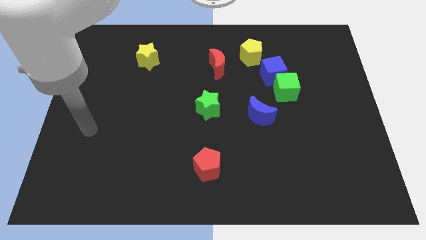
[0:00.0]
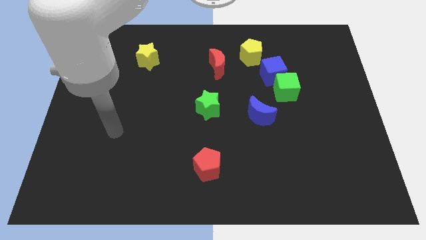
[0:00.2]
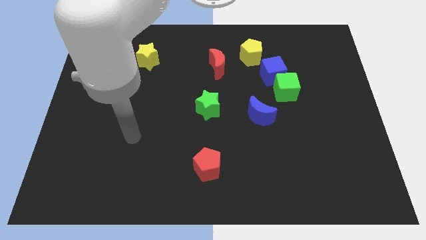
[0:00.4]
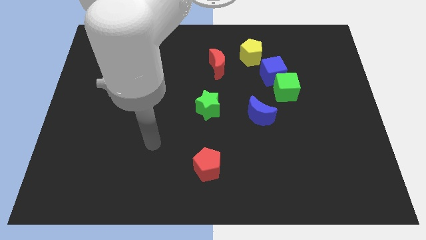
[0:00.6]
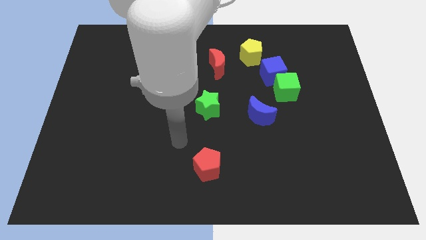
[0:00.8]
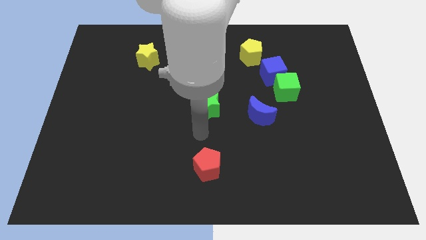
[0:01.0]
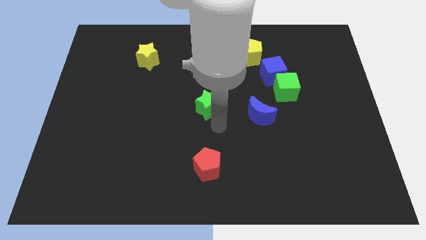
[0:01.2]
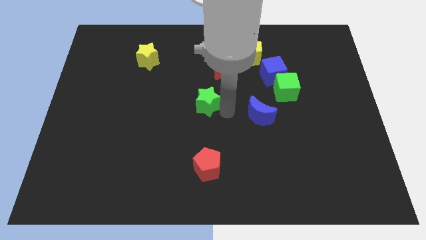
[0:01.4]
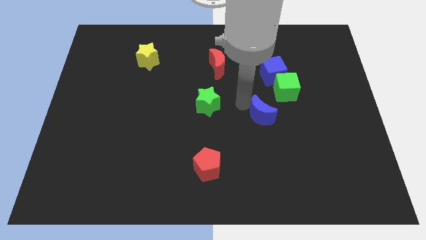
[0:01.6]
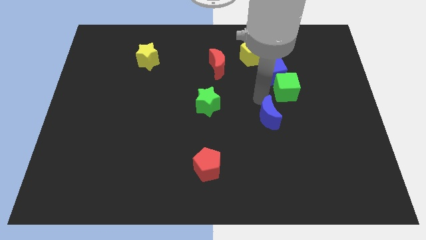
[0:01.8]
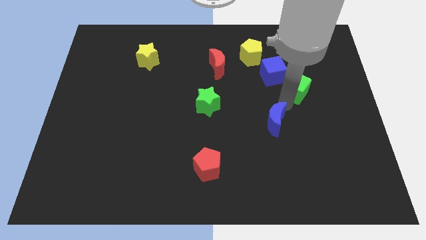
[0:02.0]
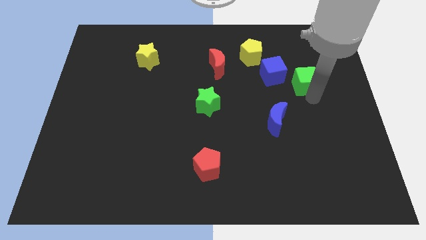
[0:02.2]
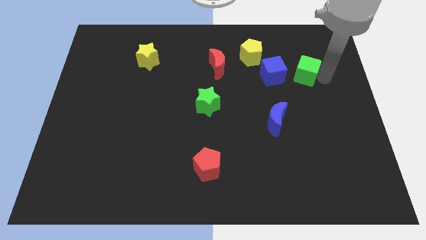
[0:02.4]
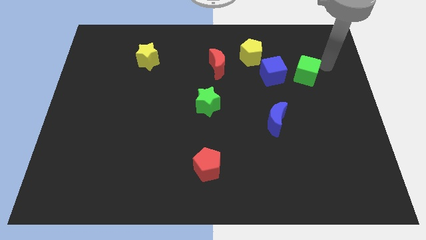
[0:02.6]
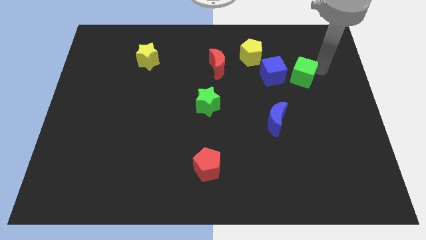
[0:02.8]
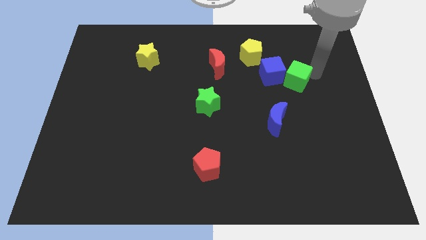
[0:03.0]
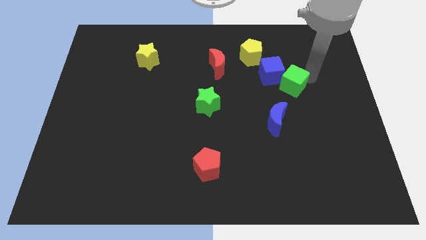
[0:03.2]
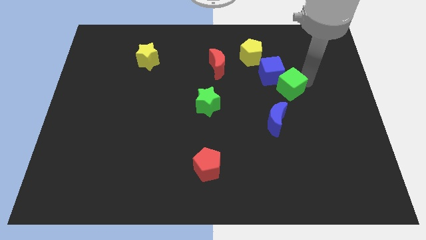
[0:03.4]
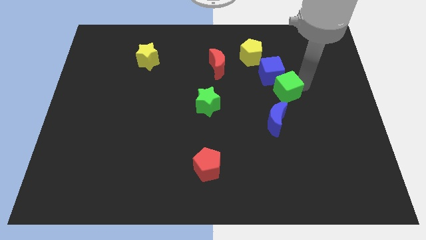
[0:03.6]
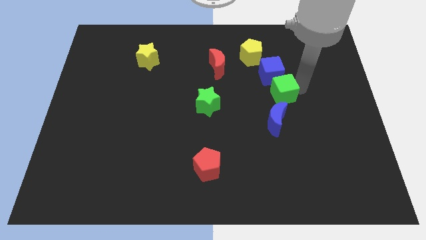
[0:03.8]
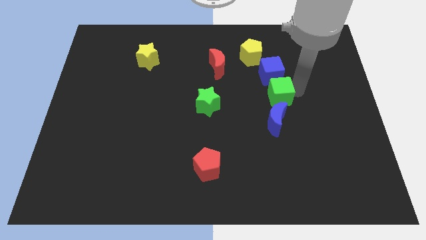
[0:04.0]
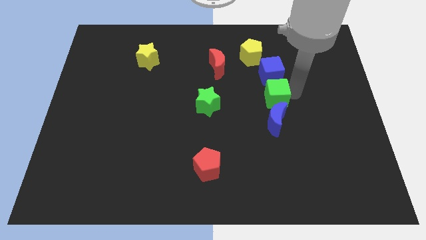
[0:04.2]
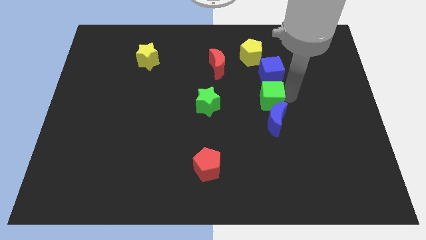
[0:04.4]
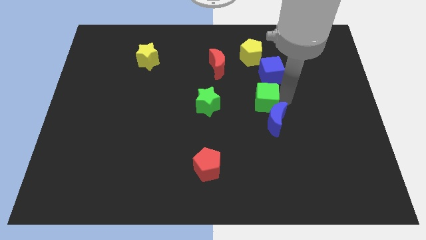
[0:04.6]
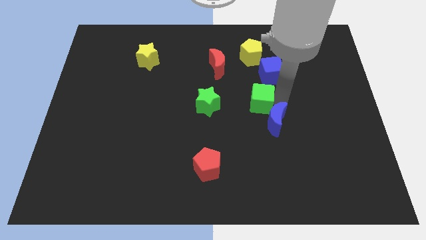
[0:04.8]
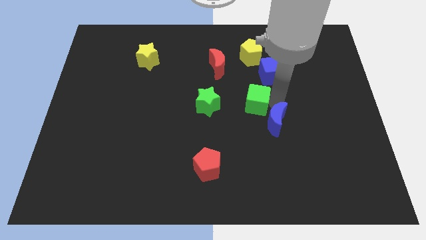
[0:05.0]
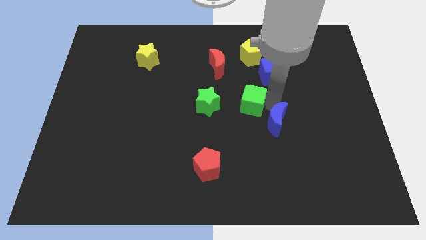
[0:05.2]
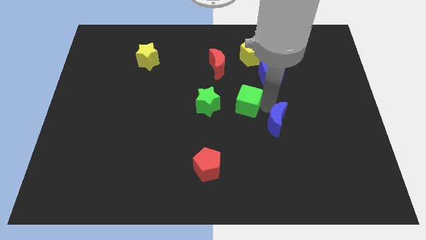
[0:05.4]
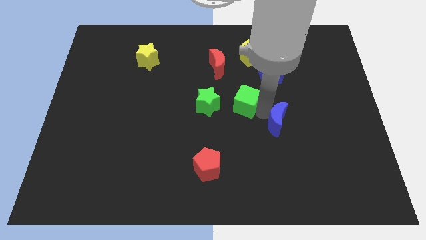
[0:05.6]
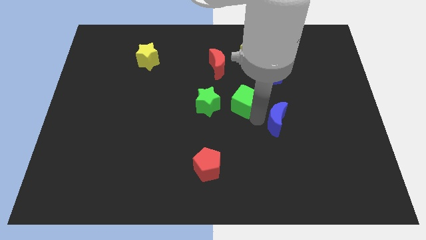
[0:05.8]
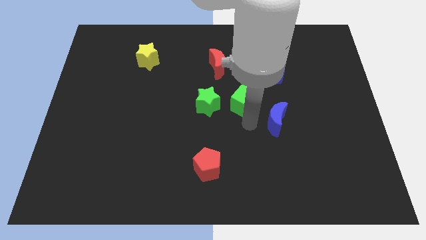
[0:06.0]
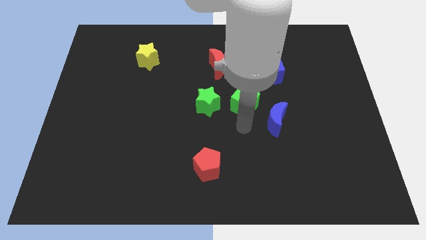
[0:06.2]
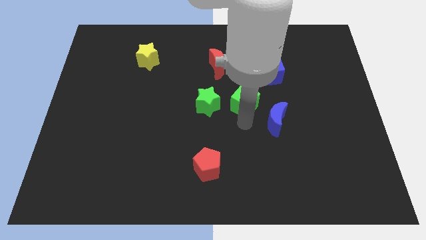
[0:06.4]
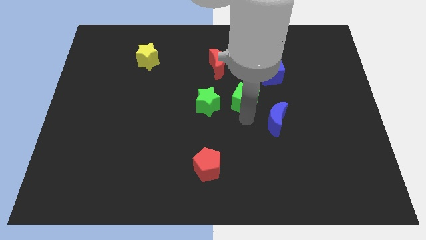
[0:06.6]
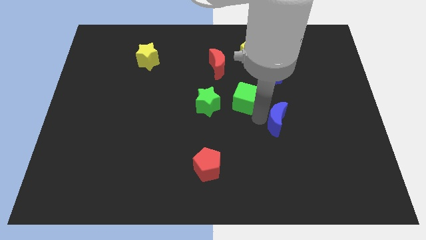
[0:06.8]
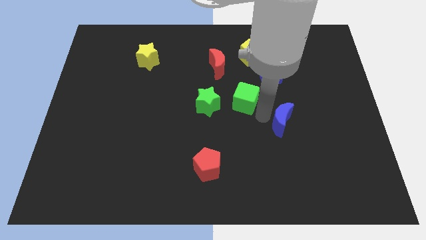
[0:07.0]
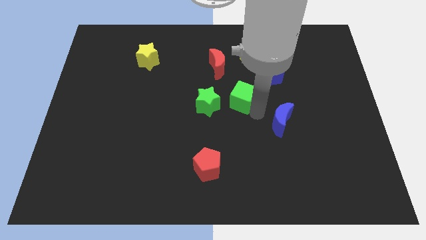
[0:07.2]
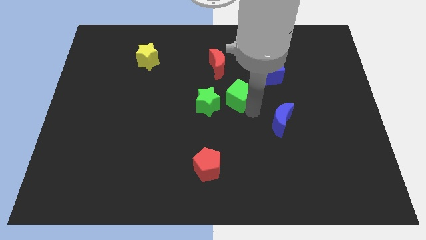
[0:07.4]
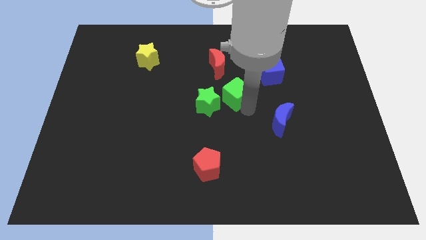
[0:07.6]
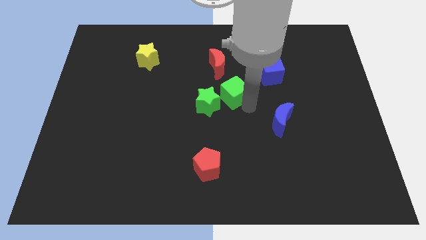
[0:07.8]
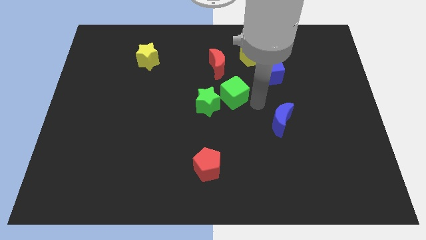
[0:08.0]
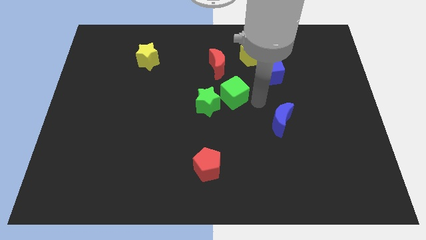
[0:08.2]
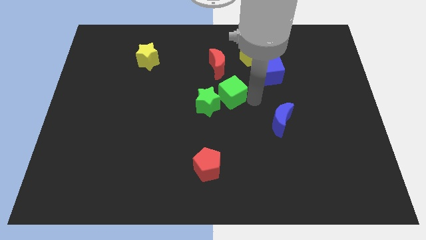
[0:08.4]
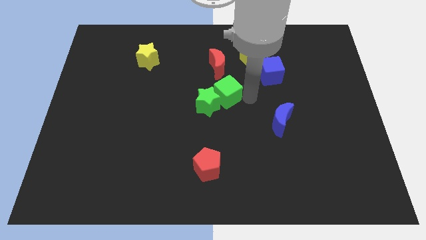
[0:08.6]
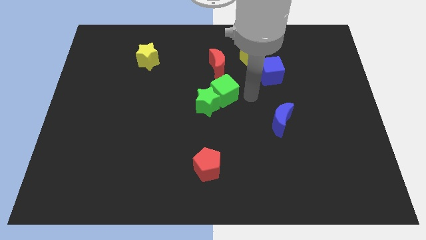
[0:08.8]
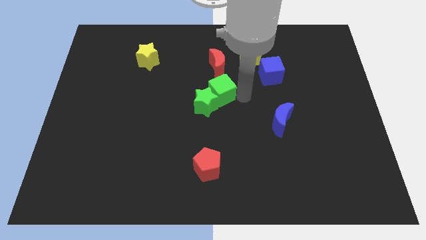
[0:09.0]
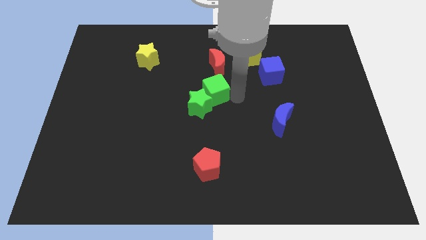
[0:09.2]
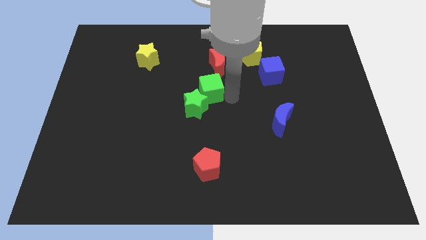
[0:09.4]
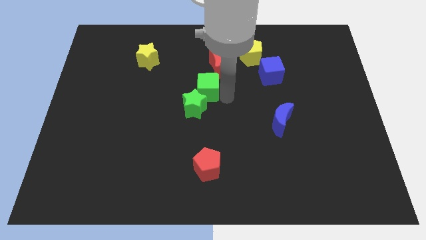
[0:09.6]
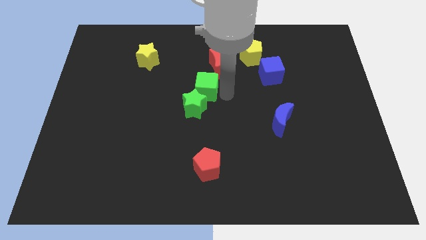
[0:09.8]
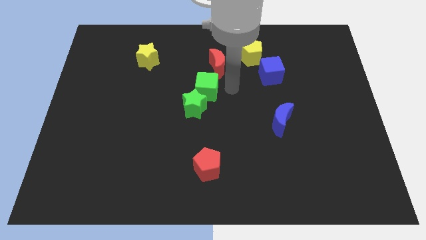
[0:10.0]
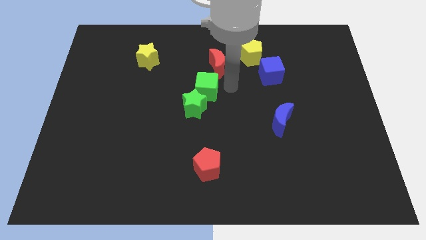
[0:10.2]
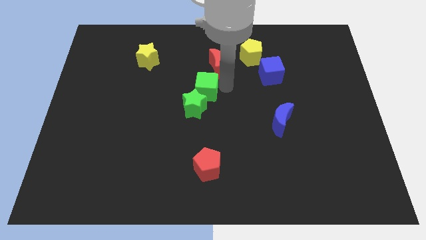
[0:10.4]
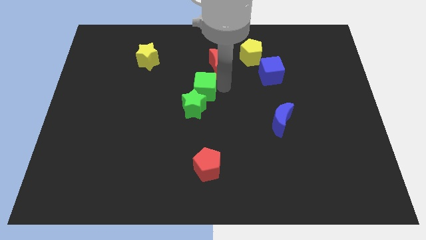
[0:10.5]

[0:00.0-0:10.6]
slide the green cube to the left

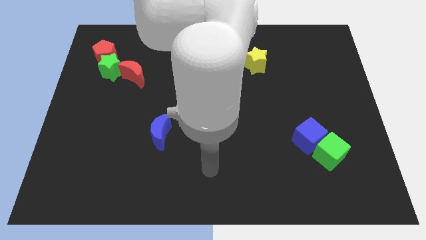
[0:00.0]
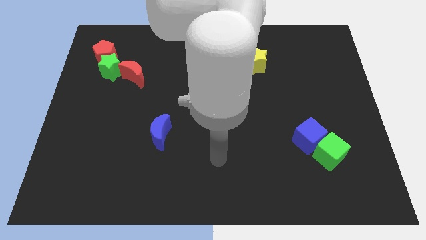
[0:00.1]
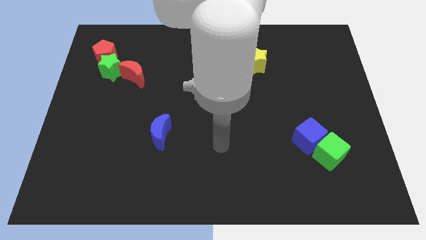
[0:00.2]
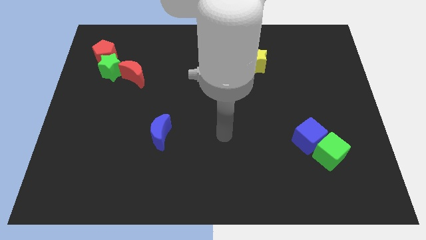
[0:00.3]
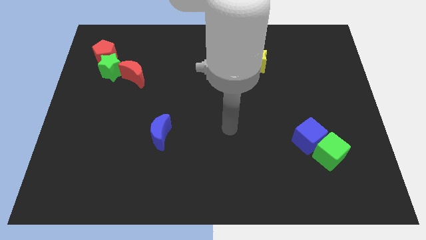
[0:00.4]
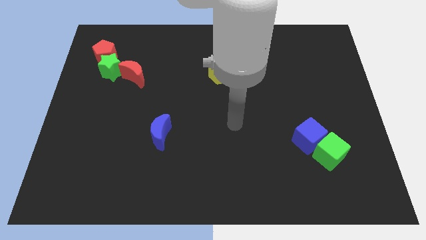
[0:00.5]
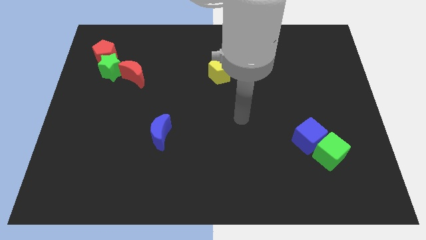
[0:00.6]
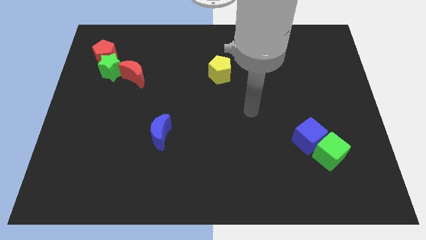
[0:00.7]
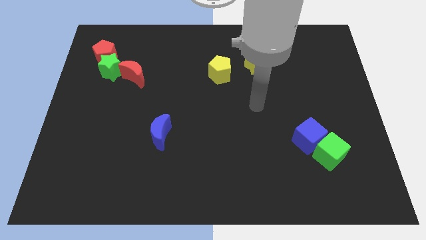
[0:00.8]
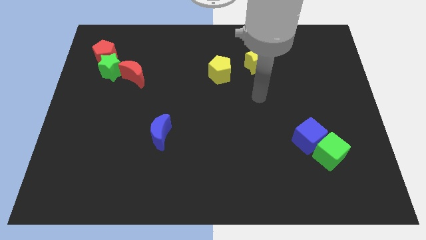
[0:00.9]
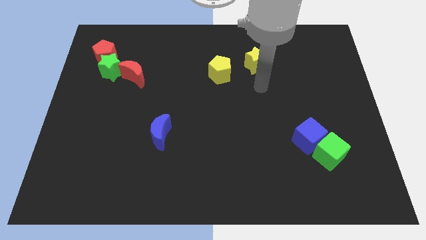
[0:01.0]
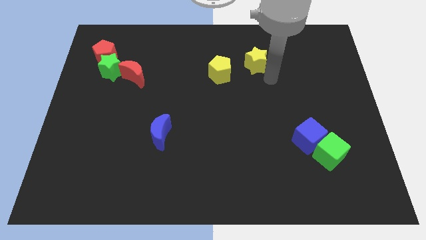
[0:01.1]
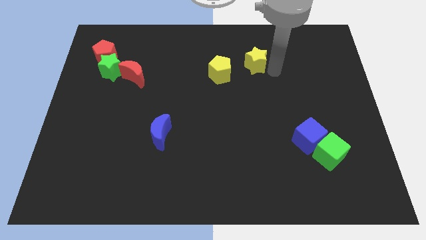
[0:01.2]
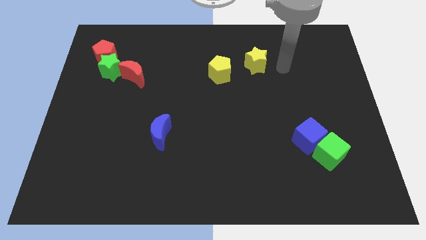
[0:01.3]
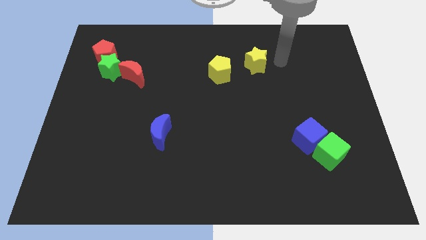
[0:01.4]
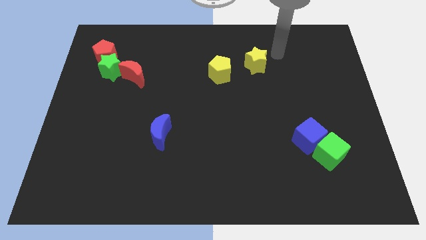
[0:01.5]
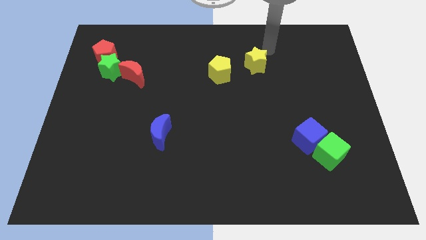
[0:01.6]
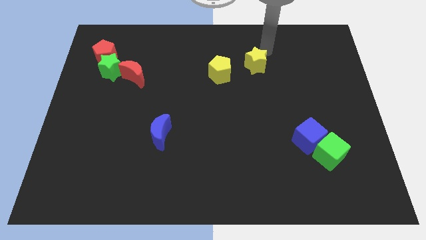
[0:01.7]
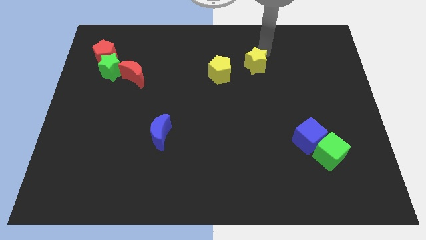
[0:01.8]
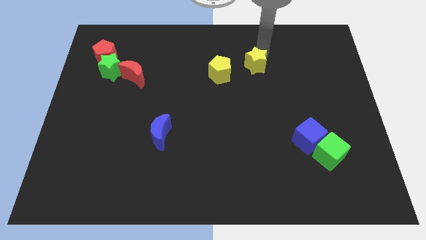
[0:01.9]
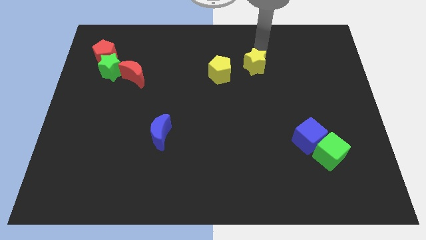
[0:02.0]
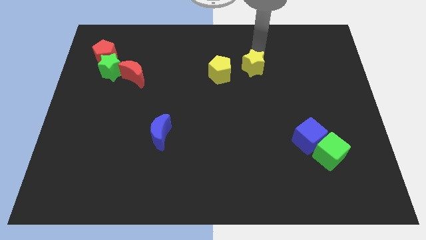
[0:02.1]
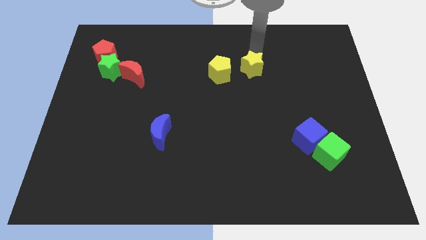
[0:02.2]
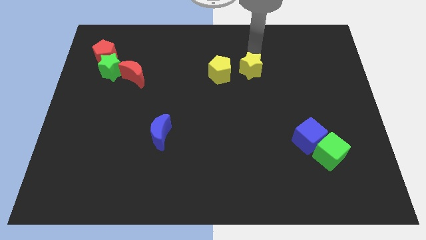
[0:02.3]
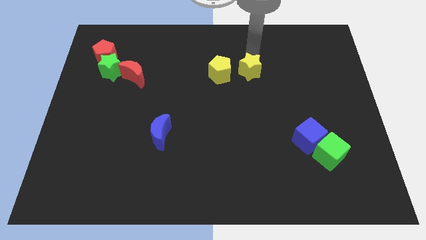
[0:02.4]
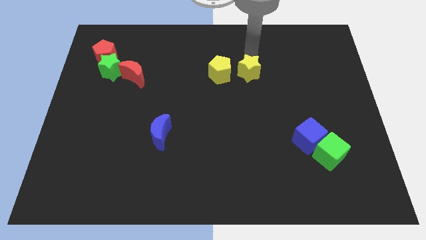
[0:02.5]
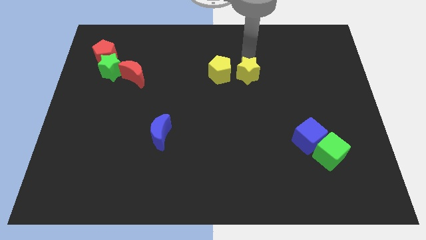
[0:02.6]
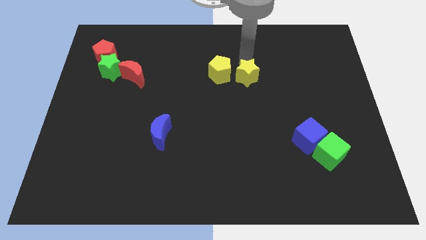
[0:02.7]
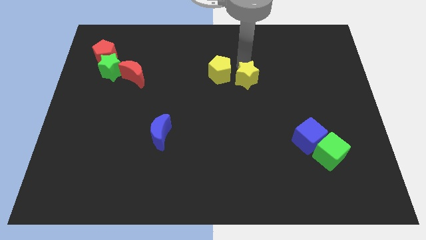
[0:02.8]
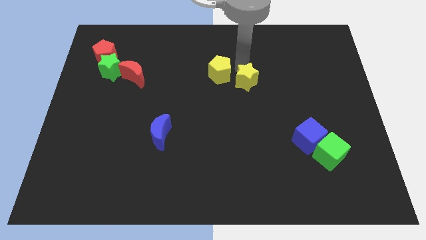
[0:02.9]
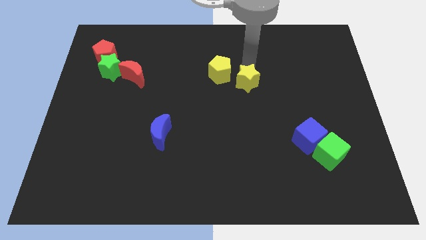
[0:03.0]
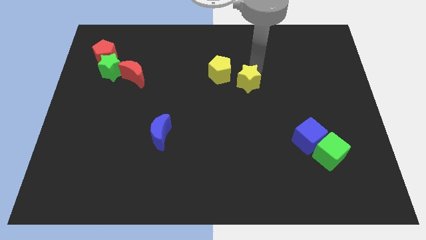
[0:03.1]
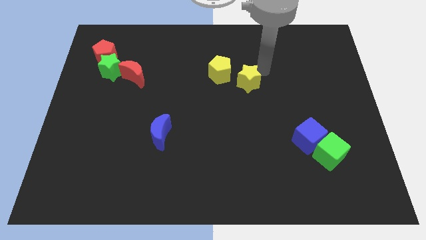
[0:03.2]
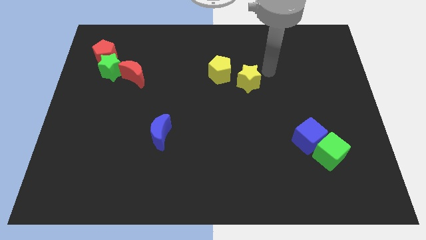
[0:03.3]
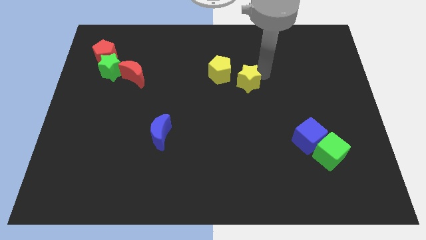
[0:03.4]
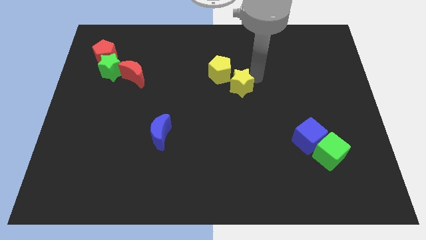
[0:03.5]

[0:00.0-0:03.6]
slightly push the yellow star down and then left
